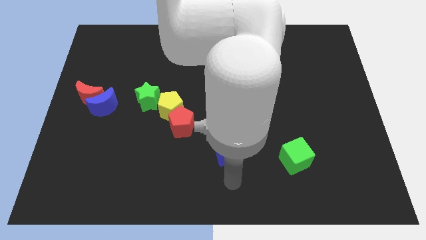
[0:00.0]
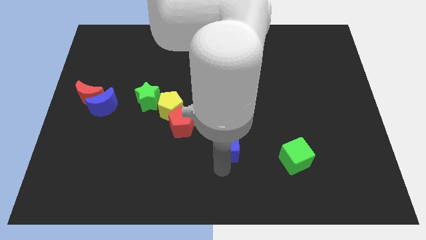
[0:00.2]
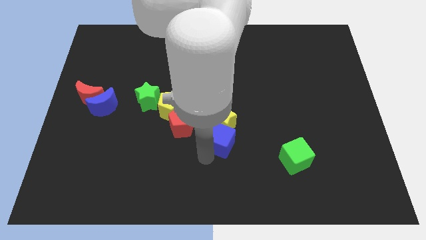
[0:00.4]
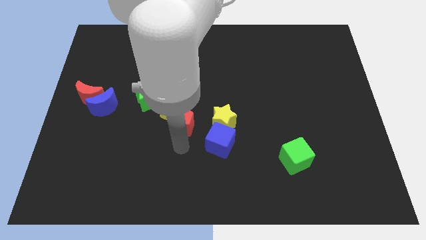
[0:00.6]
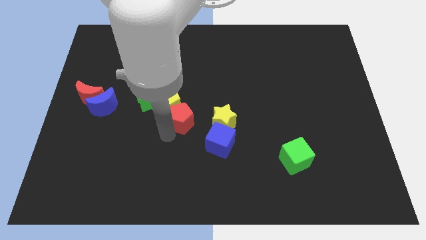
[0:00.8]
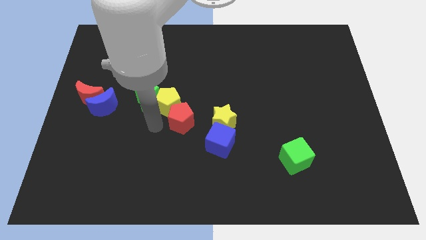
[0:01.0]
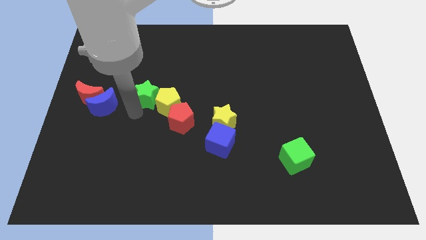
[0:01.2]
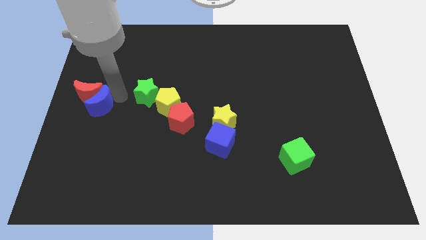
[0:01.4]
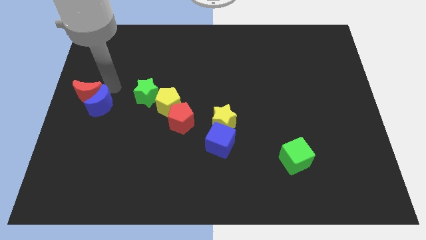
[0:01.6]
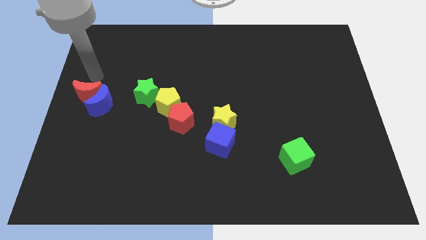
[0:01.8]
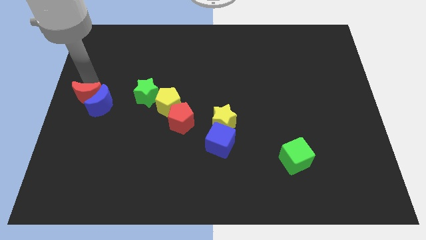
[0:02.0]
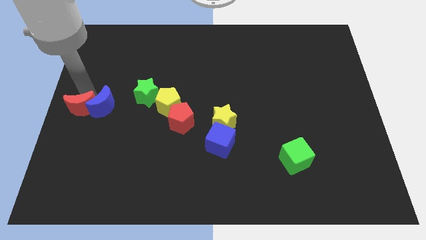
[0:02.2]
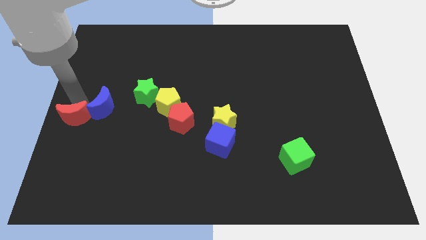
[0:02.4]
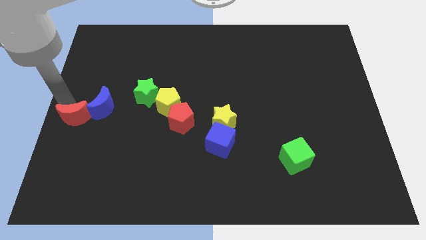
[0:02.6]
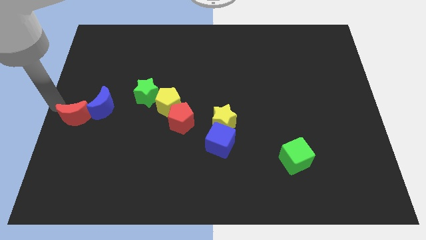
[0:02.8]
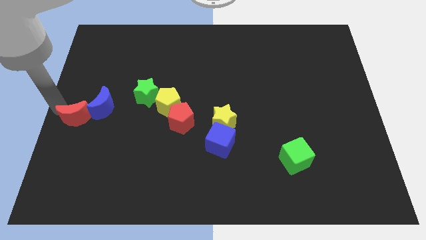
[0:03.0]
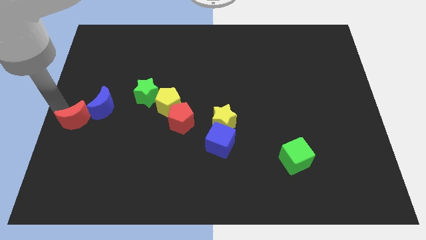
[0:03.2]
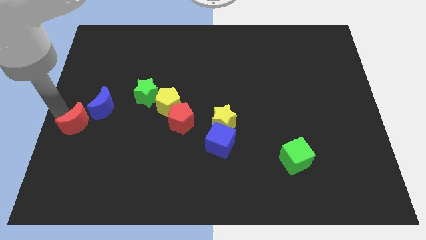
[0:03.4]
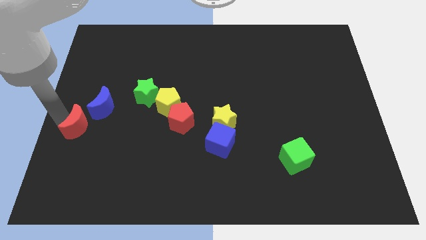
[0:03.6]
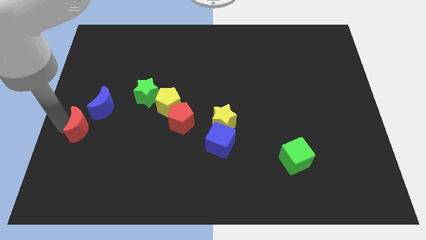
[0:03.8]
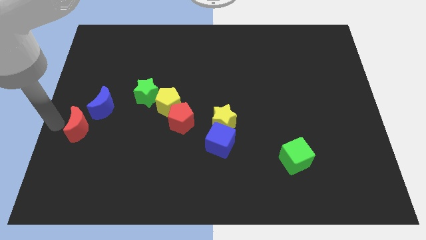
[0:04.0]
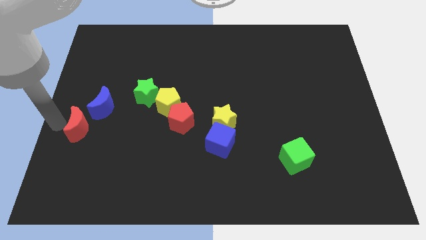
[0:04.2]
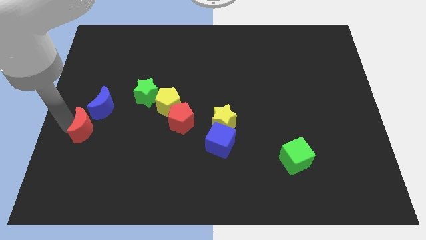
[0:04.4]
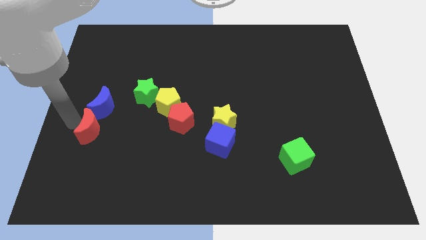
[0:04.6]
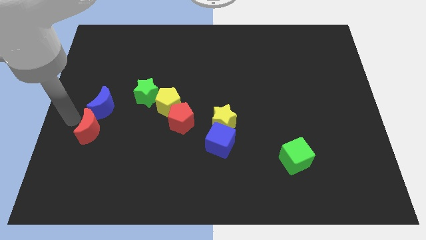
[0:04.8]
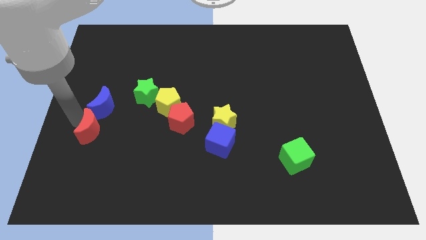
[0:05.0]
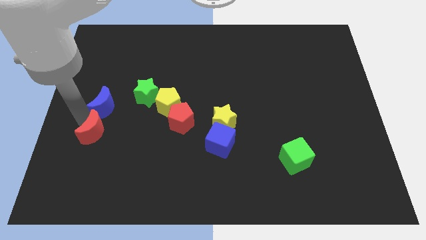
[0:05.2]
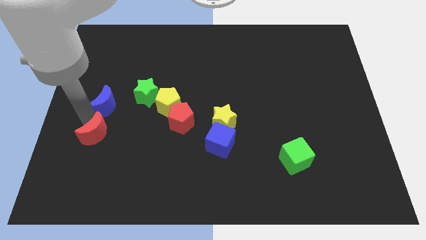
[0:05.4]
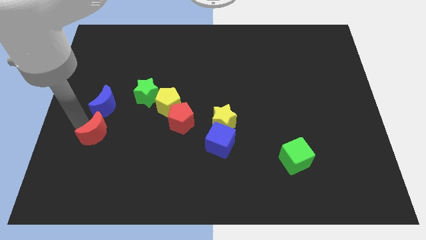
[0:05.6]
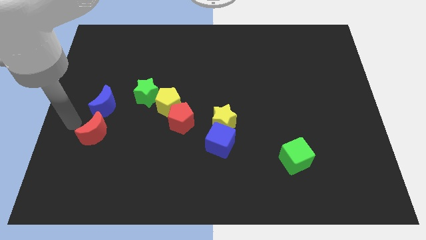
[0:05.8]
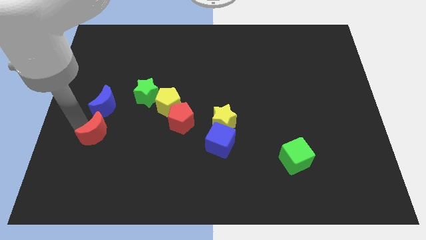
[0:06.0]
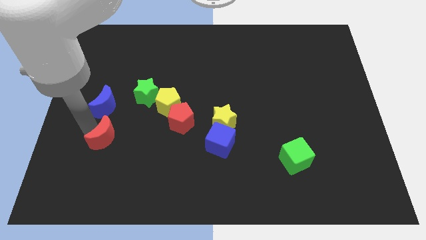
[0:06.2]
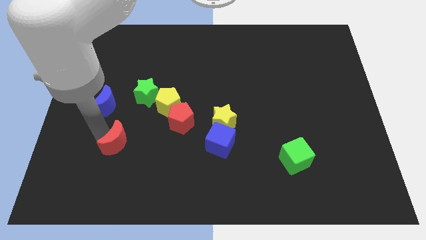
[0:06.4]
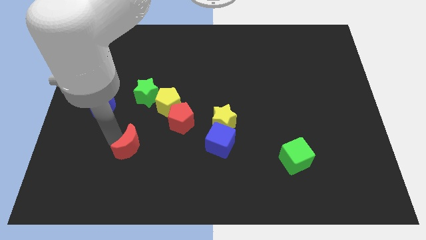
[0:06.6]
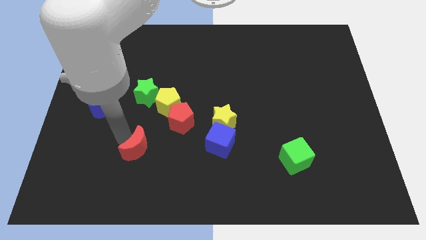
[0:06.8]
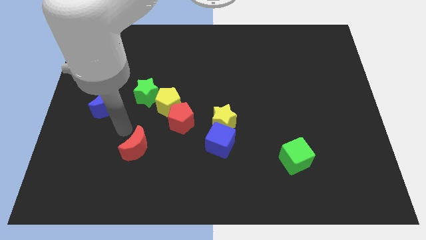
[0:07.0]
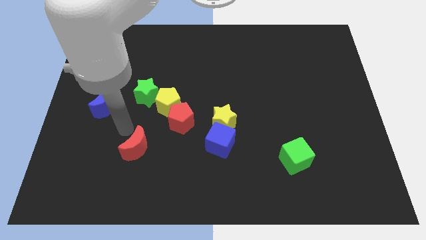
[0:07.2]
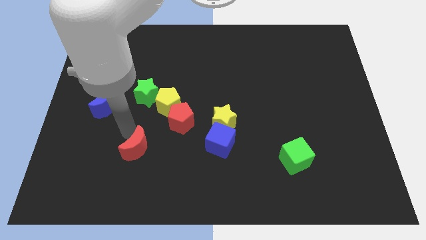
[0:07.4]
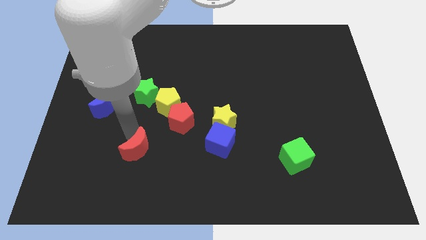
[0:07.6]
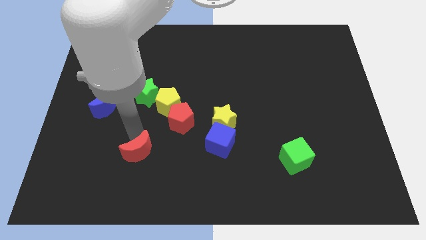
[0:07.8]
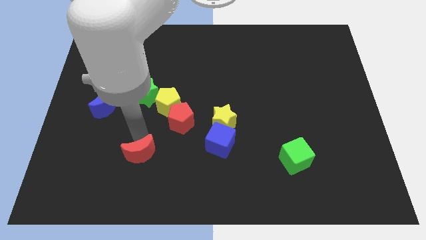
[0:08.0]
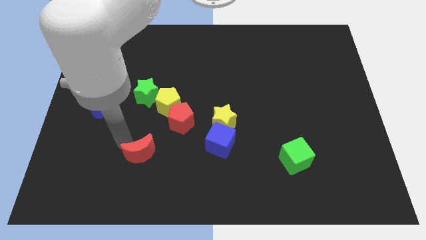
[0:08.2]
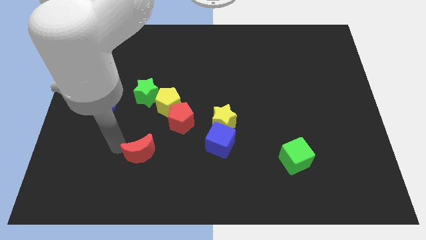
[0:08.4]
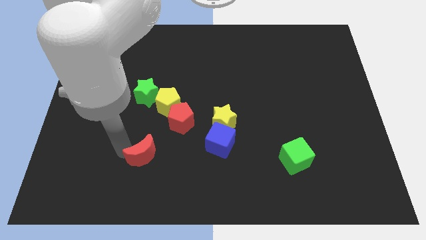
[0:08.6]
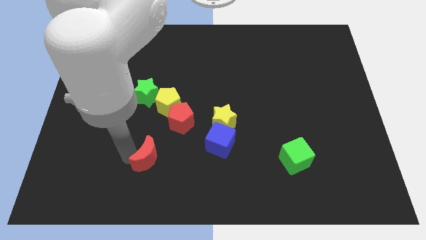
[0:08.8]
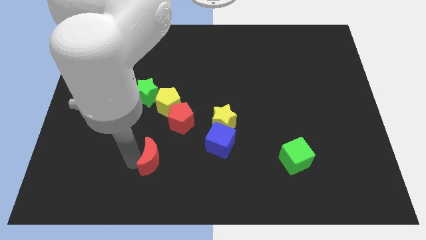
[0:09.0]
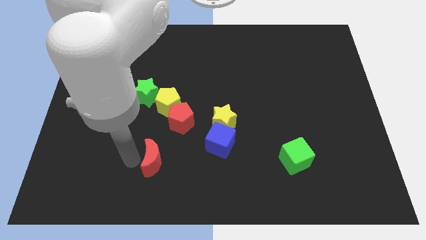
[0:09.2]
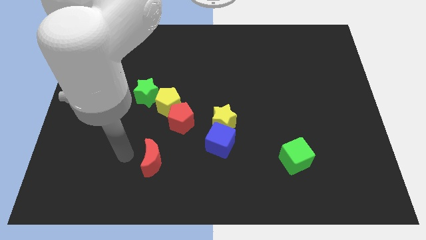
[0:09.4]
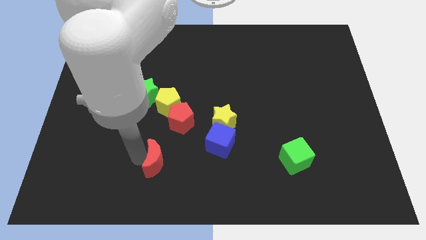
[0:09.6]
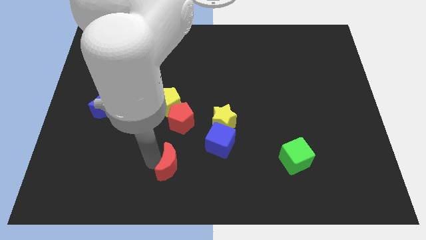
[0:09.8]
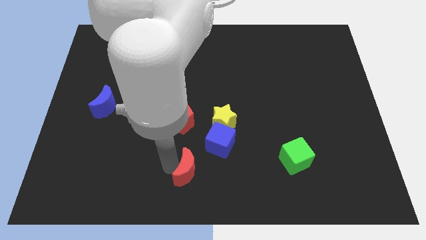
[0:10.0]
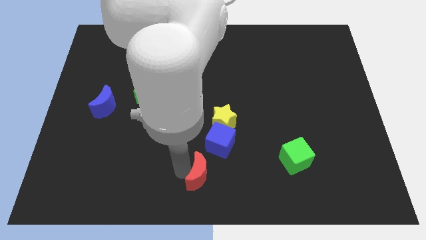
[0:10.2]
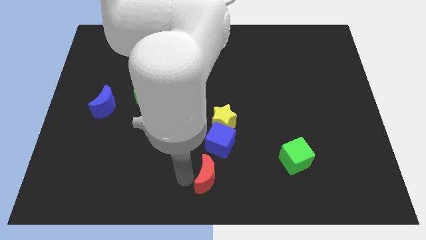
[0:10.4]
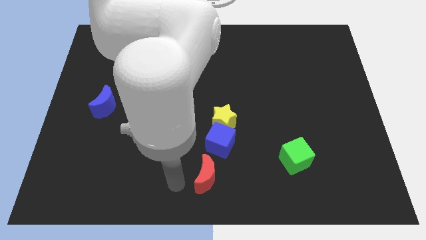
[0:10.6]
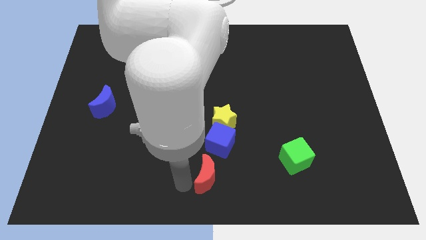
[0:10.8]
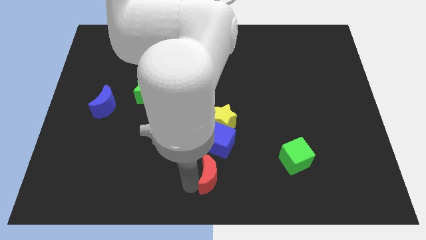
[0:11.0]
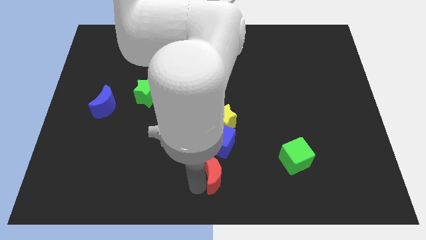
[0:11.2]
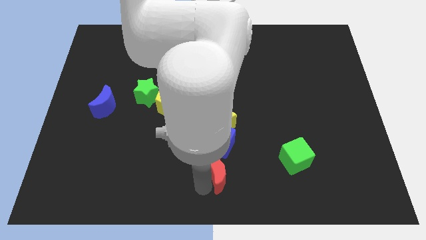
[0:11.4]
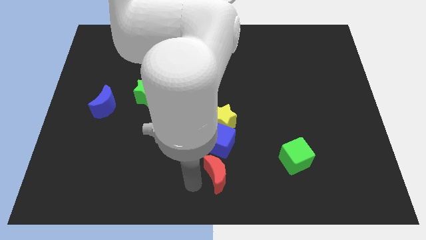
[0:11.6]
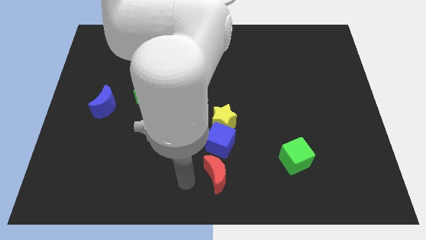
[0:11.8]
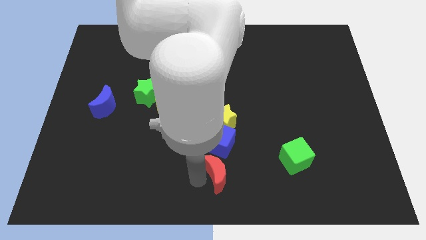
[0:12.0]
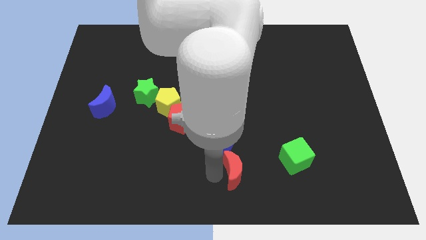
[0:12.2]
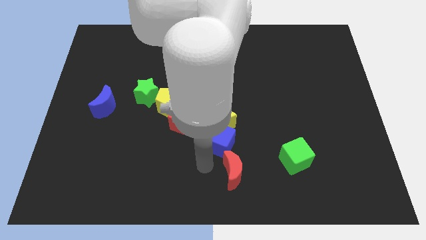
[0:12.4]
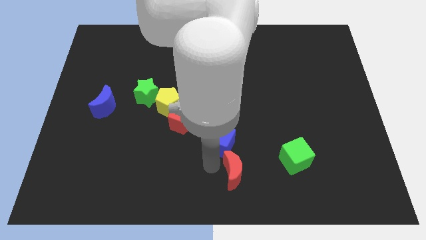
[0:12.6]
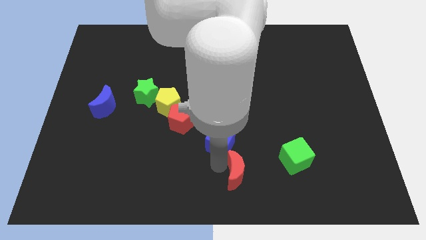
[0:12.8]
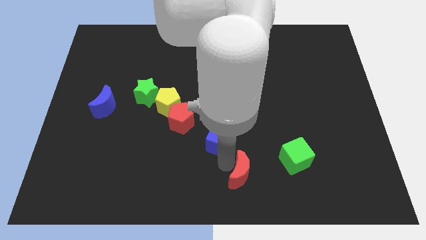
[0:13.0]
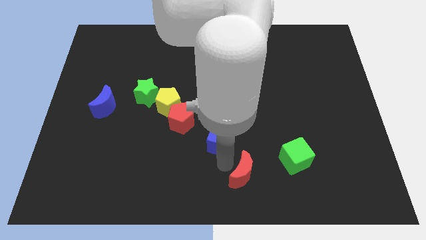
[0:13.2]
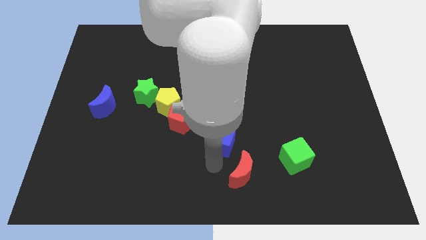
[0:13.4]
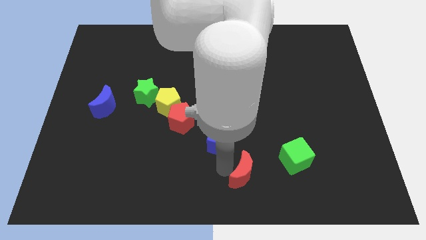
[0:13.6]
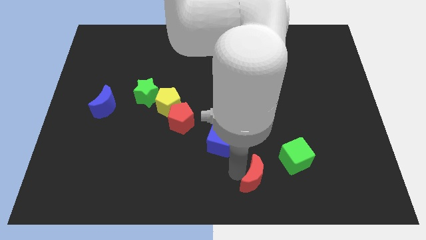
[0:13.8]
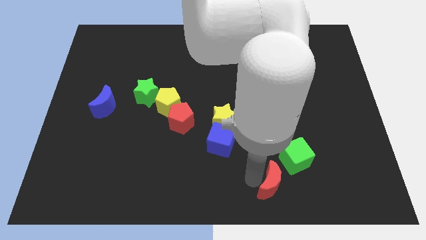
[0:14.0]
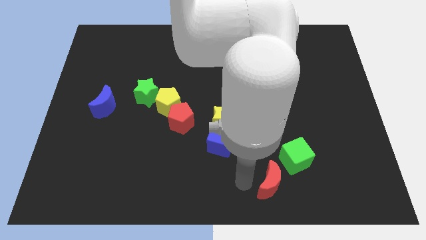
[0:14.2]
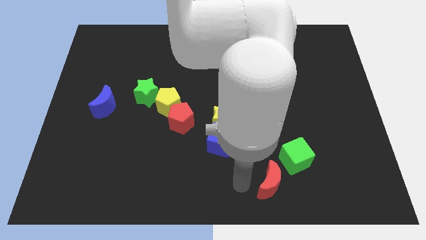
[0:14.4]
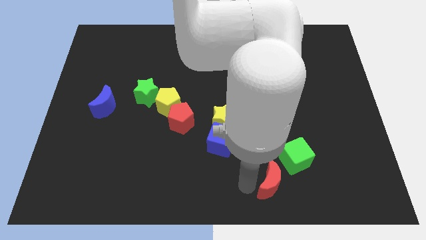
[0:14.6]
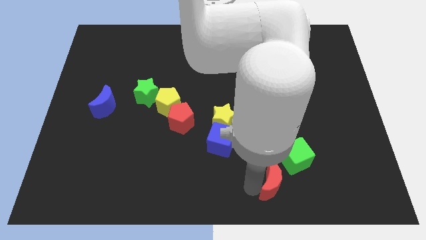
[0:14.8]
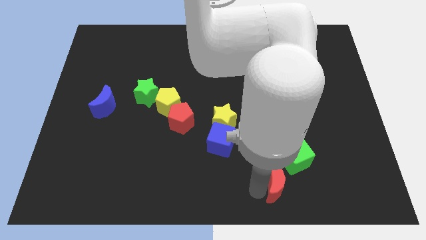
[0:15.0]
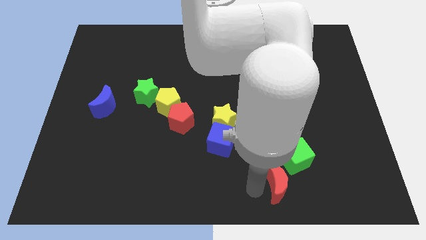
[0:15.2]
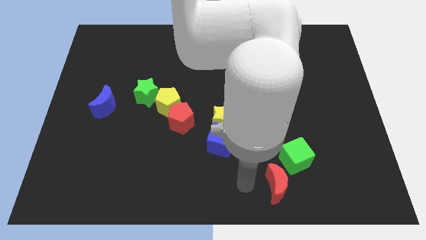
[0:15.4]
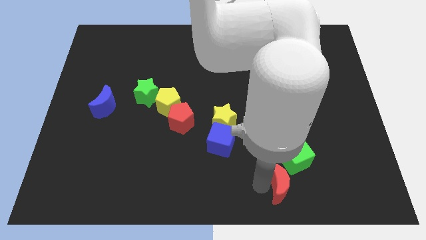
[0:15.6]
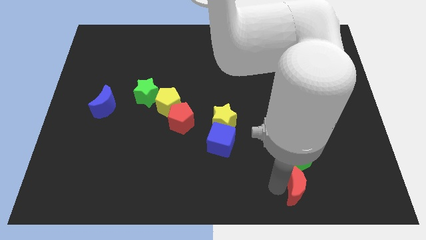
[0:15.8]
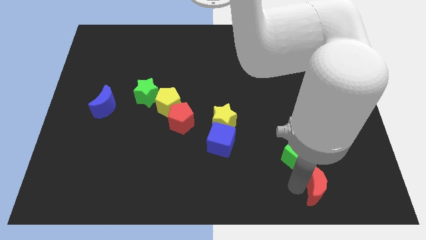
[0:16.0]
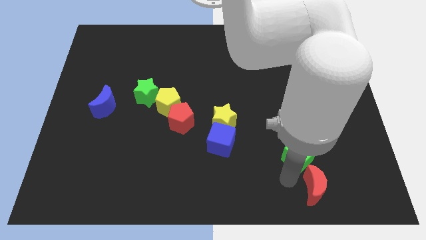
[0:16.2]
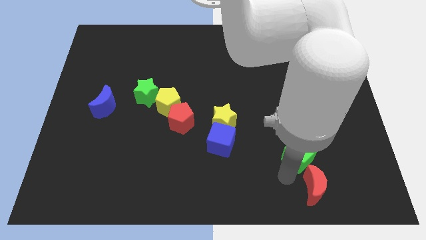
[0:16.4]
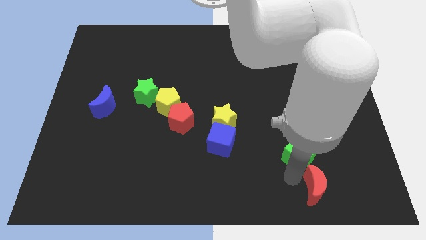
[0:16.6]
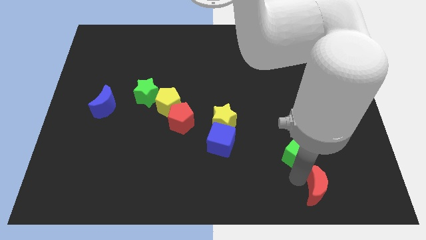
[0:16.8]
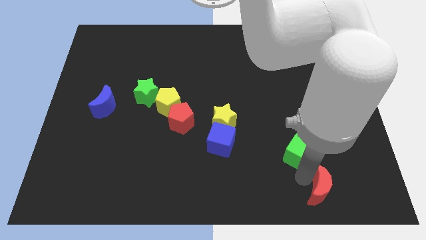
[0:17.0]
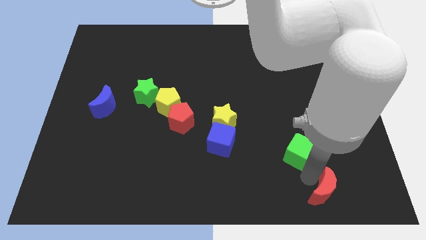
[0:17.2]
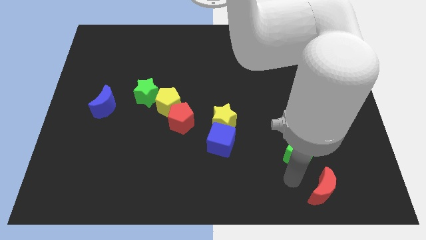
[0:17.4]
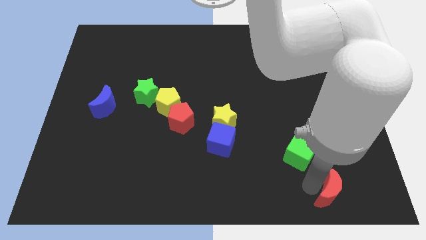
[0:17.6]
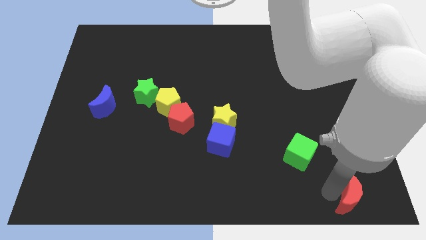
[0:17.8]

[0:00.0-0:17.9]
put the red moon to the bottom right corner
